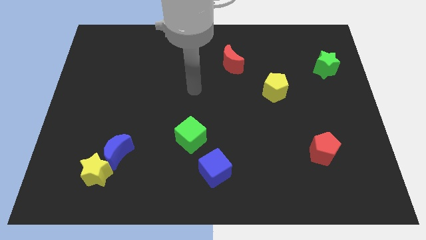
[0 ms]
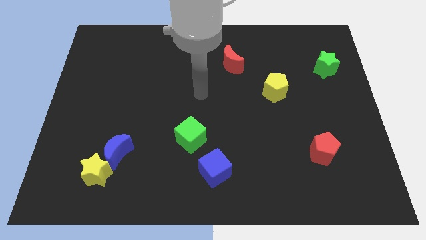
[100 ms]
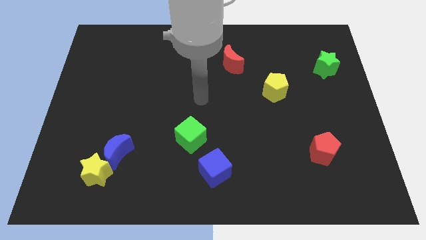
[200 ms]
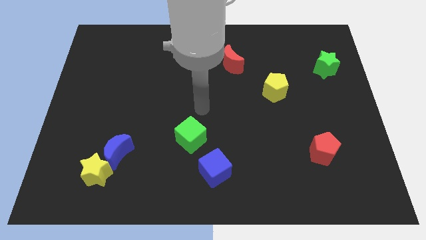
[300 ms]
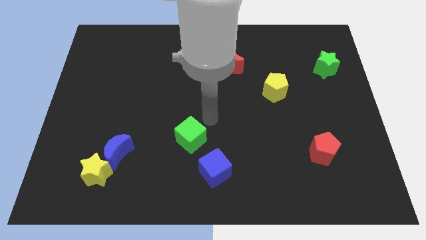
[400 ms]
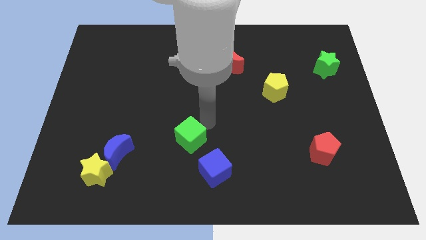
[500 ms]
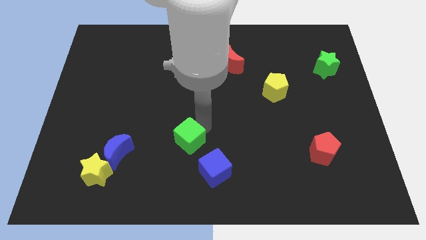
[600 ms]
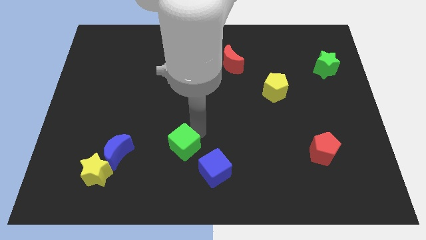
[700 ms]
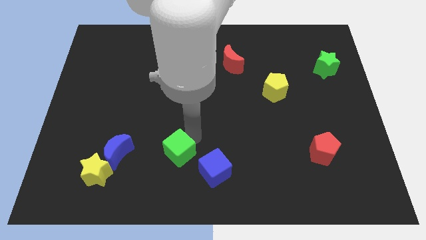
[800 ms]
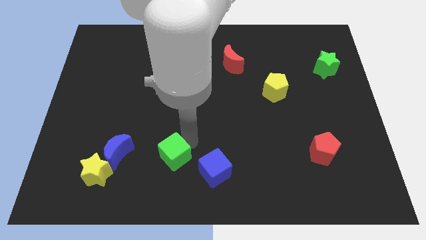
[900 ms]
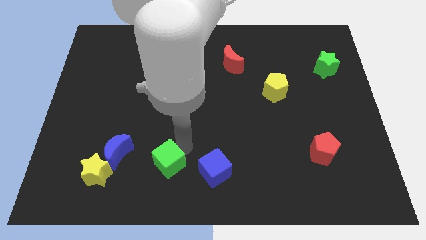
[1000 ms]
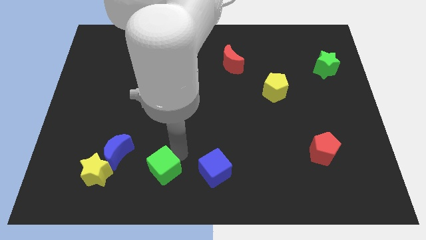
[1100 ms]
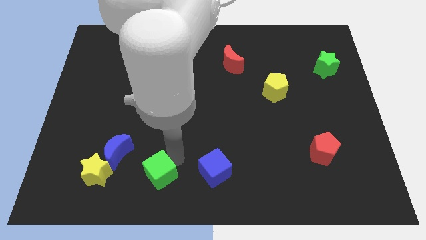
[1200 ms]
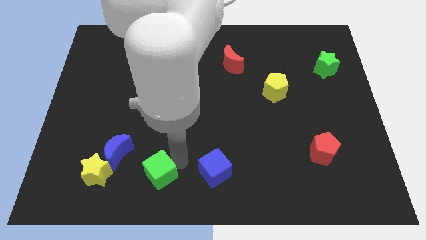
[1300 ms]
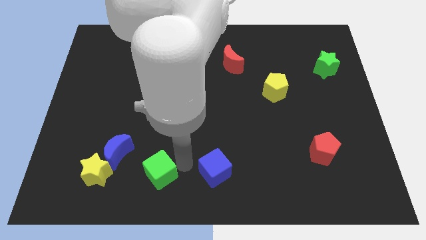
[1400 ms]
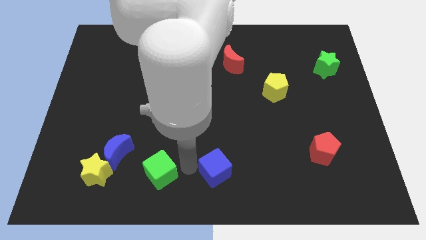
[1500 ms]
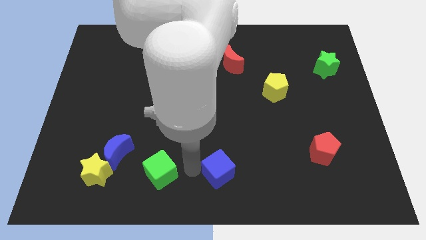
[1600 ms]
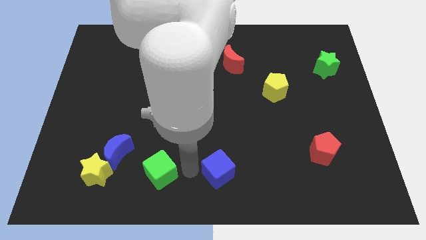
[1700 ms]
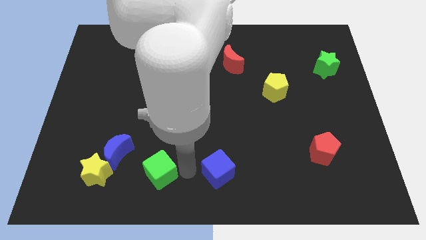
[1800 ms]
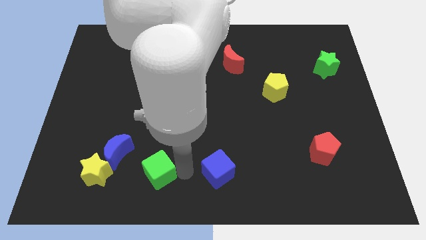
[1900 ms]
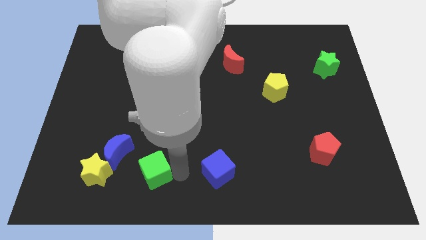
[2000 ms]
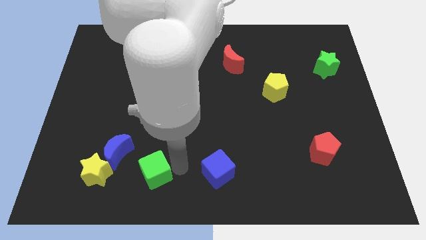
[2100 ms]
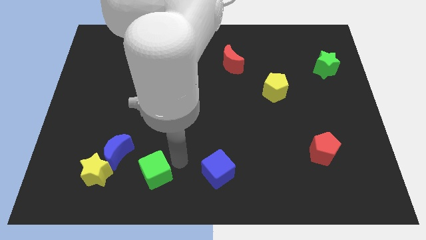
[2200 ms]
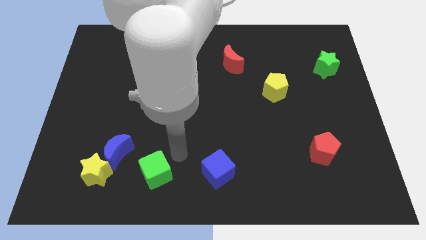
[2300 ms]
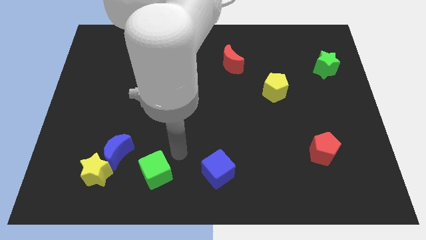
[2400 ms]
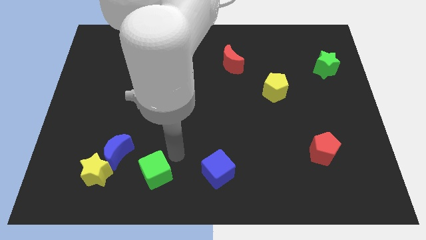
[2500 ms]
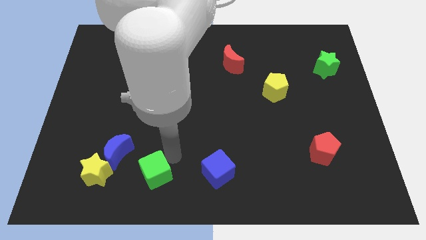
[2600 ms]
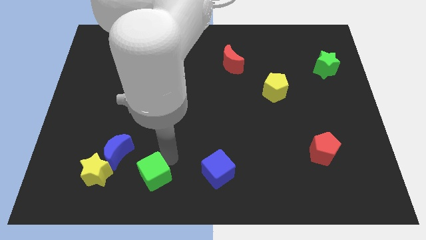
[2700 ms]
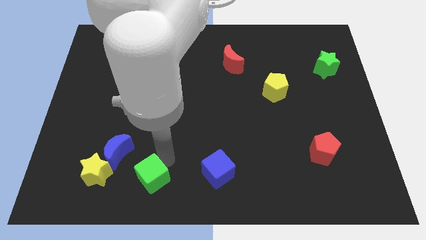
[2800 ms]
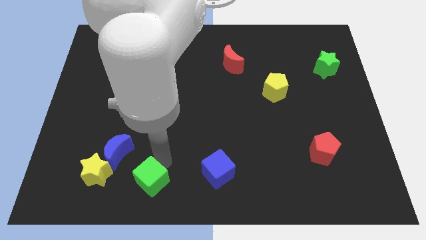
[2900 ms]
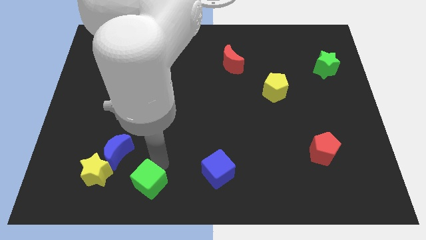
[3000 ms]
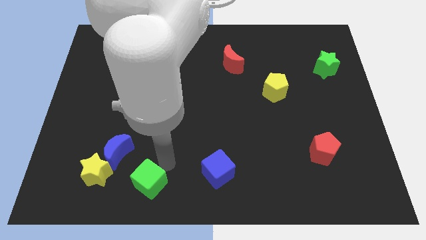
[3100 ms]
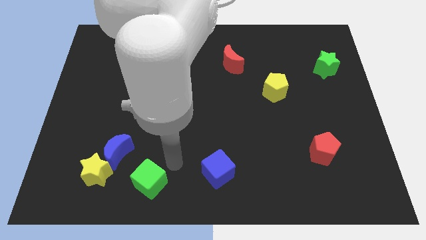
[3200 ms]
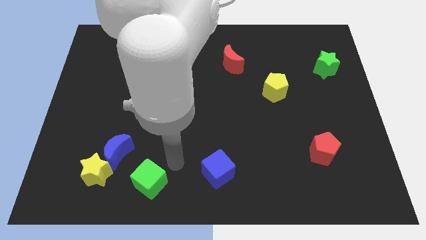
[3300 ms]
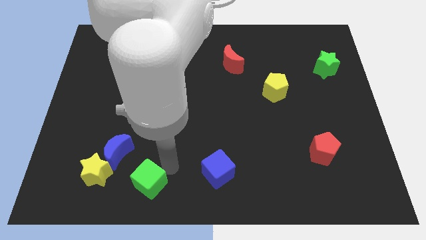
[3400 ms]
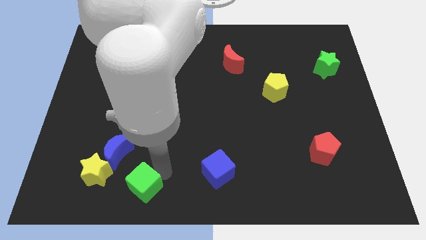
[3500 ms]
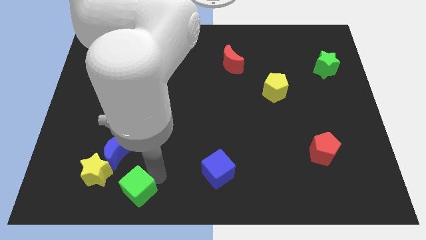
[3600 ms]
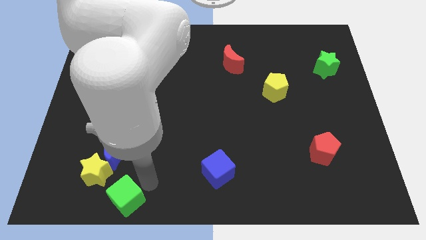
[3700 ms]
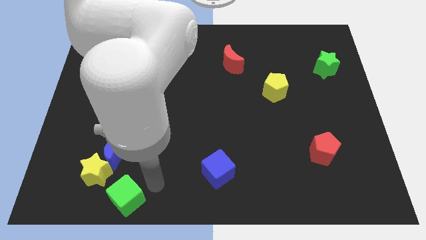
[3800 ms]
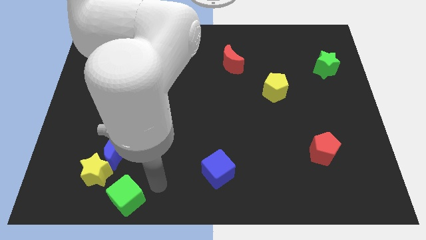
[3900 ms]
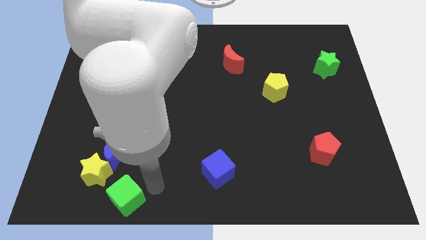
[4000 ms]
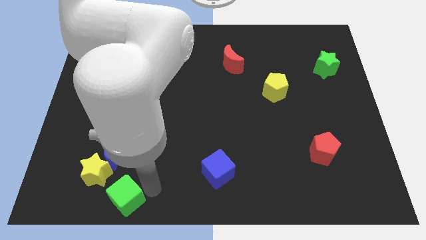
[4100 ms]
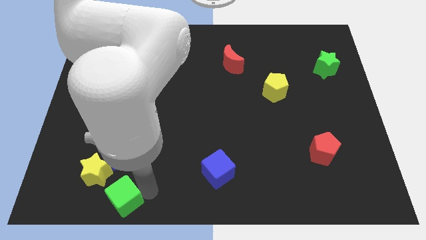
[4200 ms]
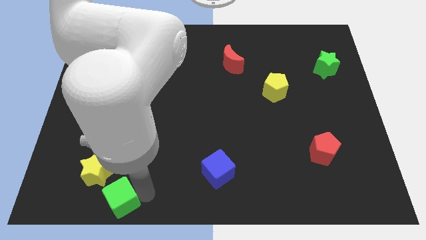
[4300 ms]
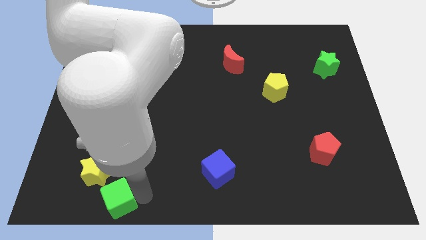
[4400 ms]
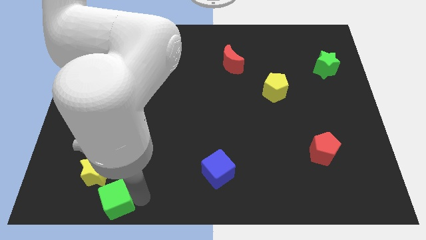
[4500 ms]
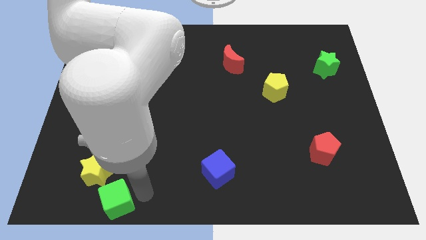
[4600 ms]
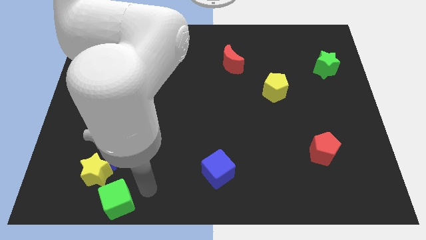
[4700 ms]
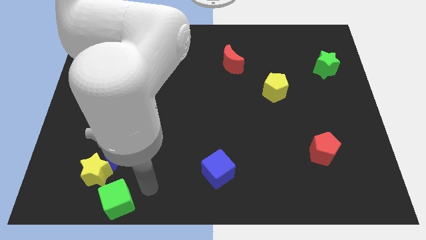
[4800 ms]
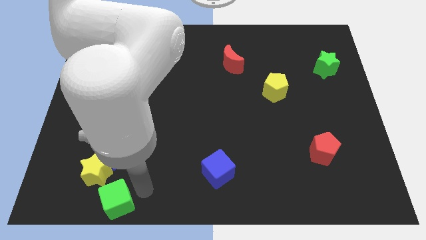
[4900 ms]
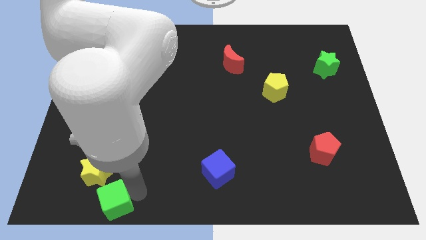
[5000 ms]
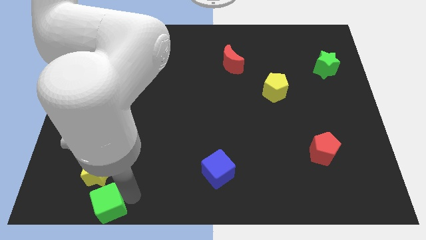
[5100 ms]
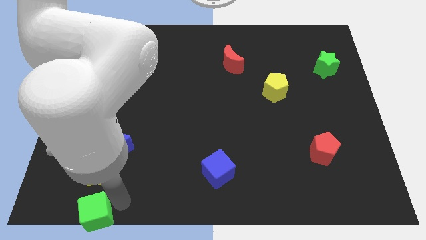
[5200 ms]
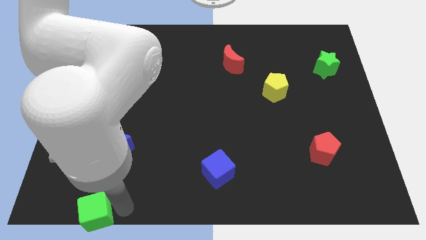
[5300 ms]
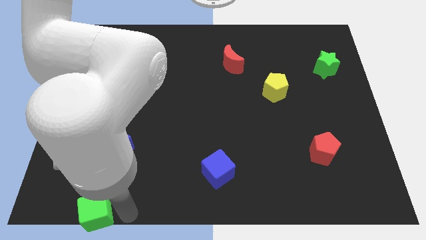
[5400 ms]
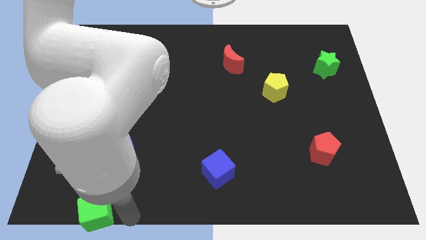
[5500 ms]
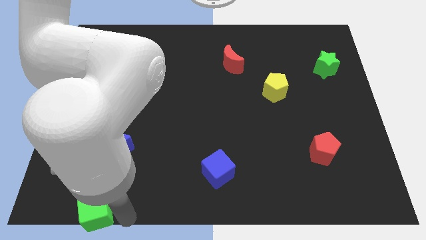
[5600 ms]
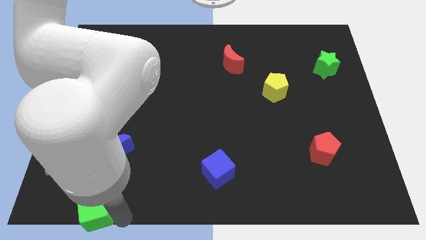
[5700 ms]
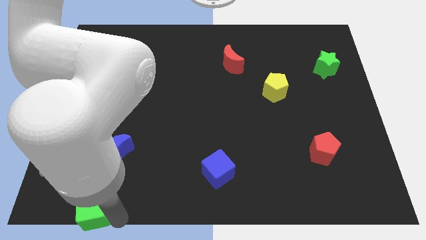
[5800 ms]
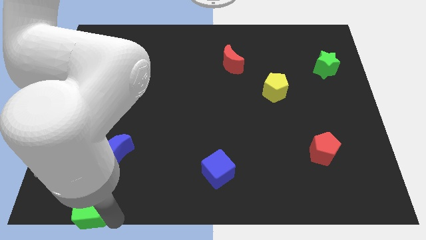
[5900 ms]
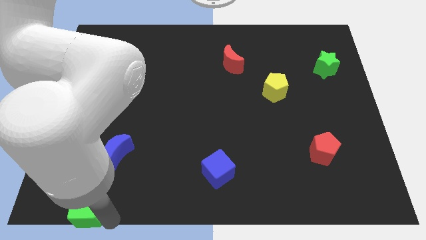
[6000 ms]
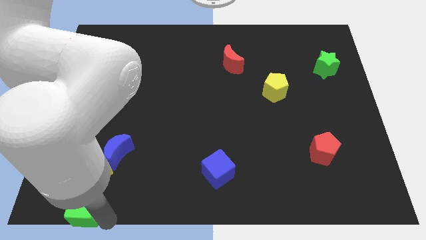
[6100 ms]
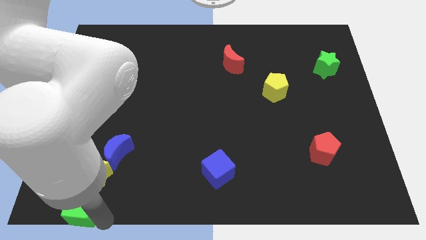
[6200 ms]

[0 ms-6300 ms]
move the green cube to the bottom left

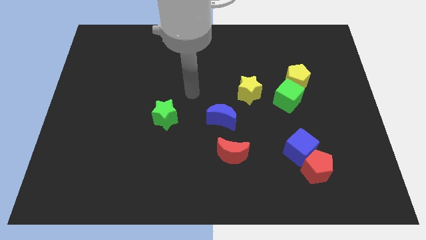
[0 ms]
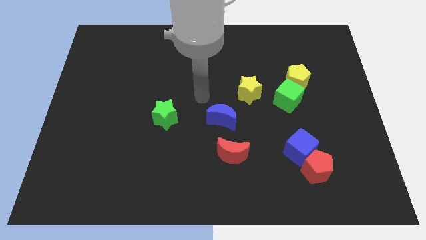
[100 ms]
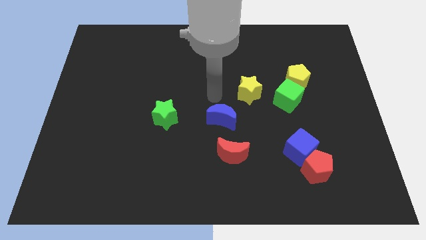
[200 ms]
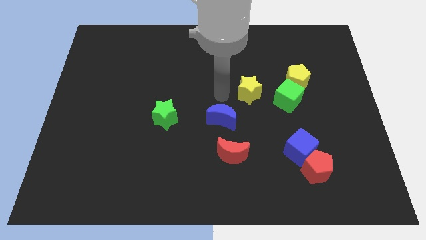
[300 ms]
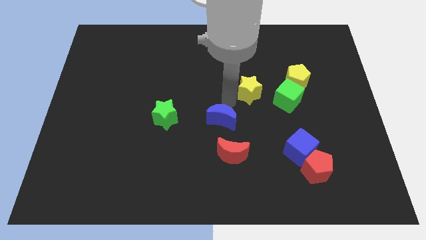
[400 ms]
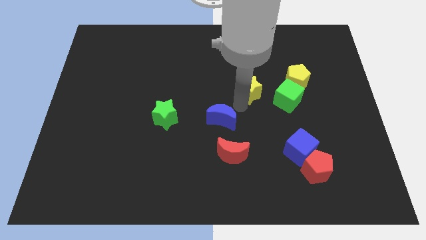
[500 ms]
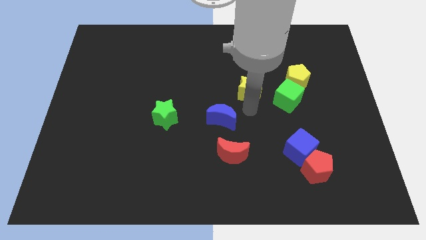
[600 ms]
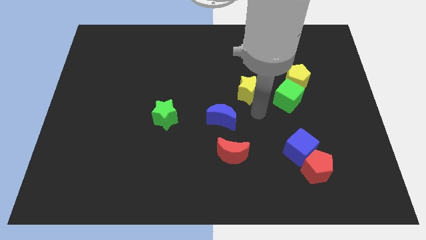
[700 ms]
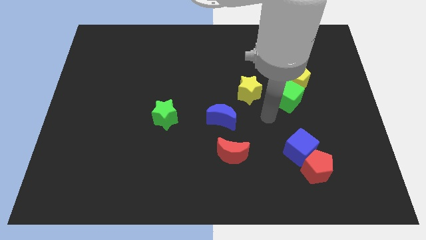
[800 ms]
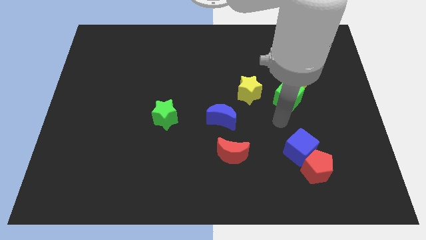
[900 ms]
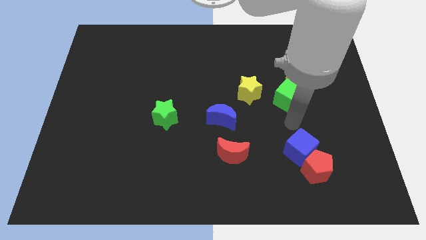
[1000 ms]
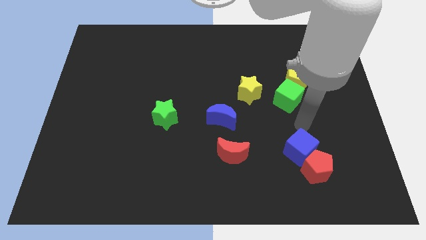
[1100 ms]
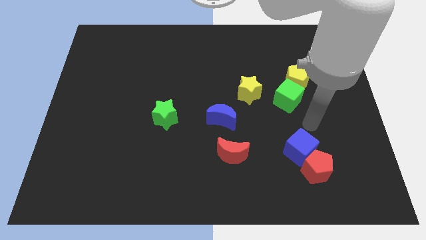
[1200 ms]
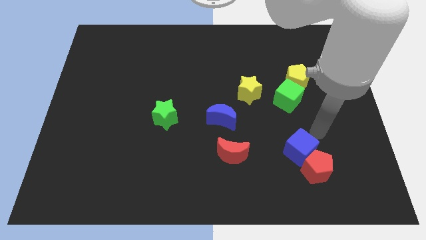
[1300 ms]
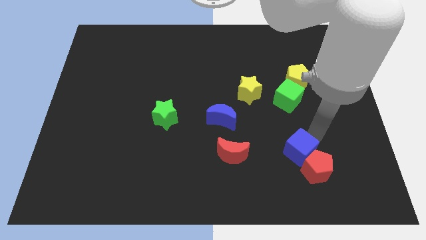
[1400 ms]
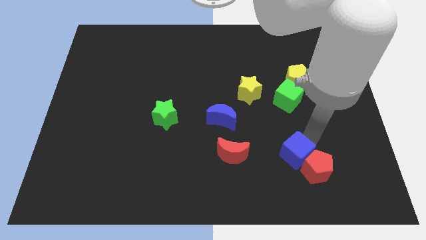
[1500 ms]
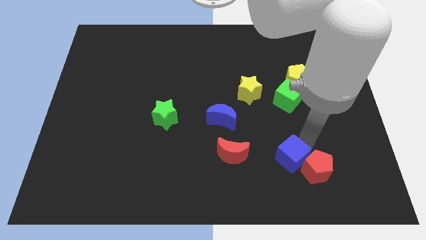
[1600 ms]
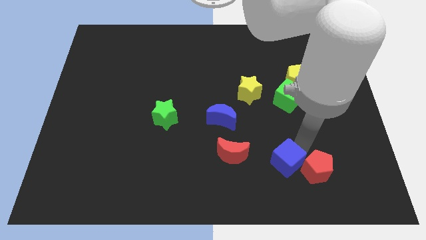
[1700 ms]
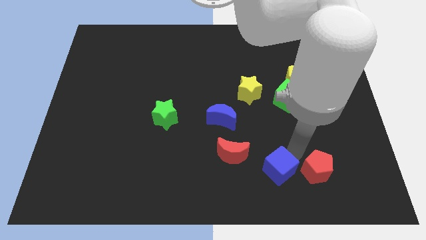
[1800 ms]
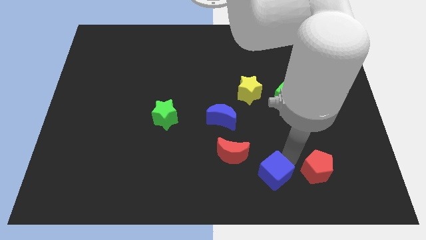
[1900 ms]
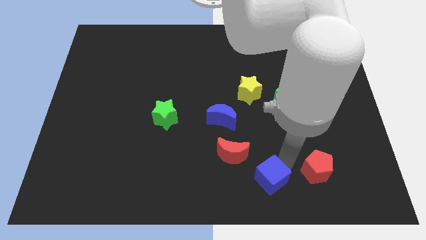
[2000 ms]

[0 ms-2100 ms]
push the blue cube to the bottom side
